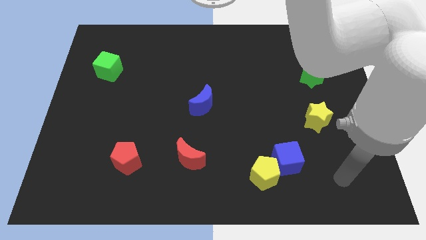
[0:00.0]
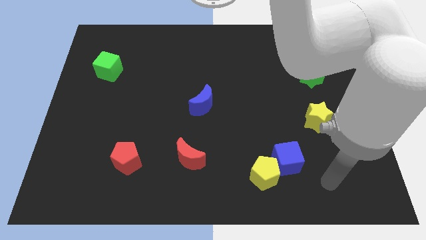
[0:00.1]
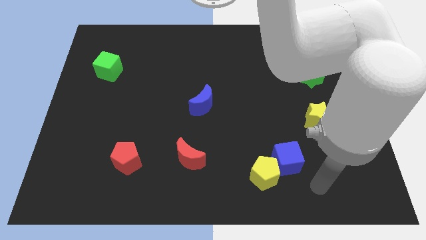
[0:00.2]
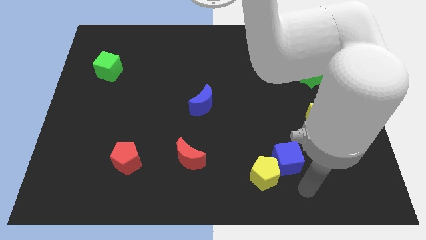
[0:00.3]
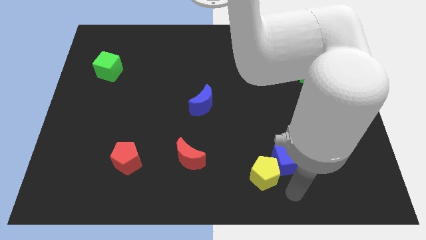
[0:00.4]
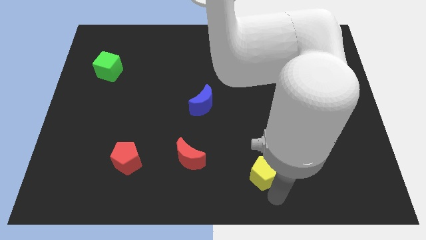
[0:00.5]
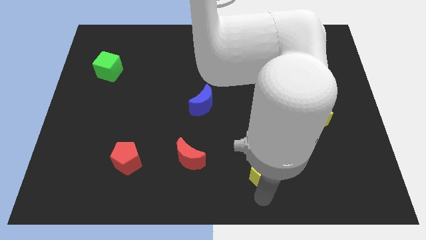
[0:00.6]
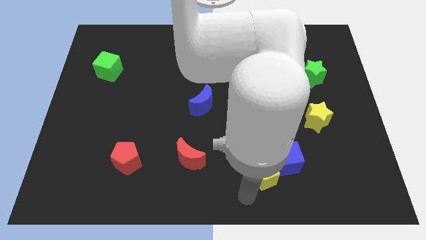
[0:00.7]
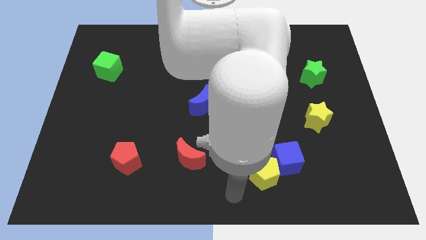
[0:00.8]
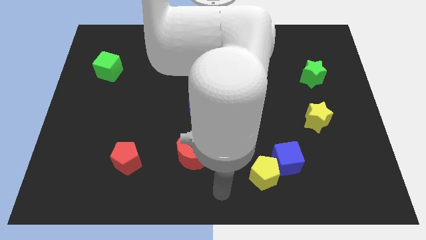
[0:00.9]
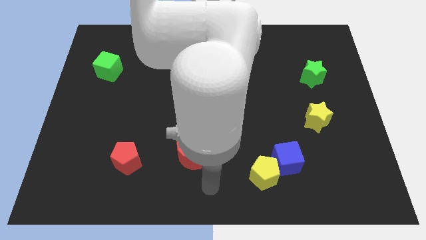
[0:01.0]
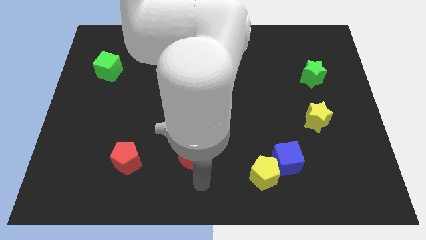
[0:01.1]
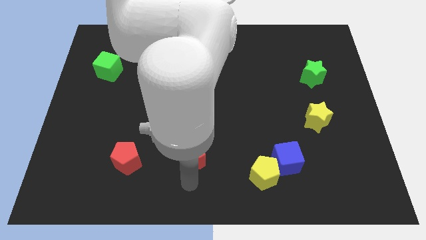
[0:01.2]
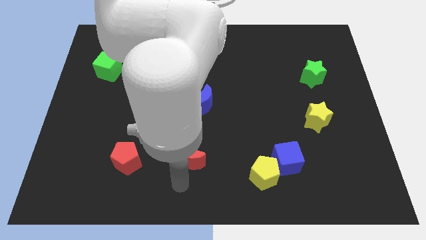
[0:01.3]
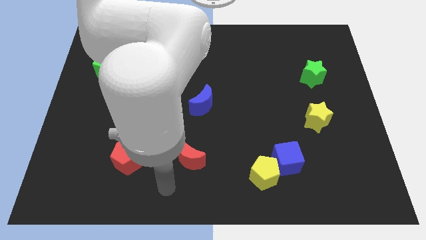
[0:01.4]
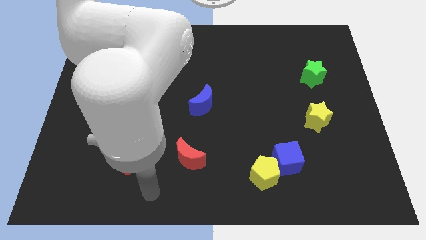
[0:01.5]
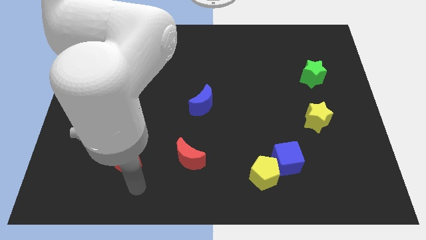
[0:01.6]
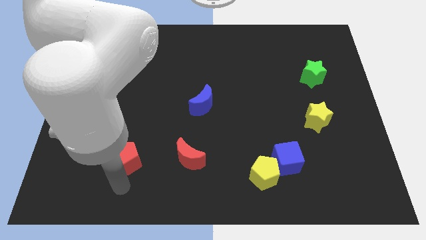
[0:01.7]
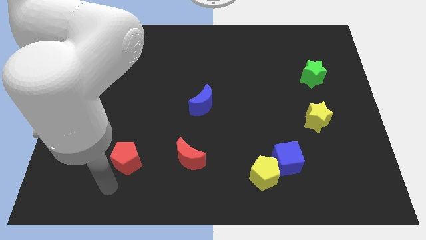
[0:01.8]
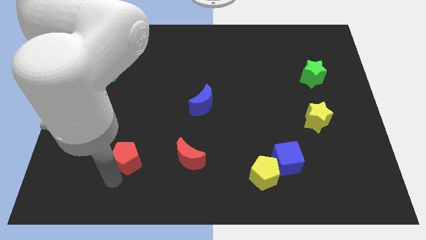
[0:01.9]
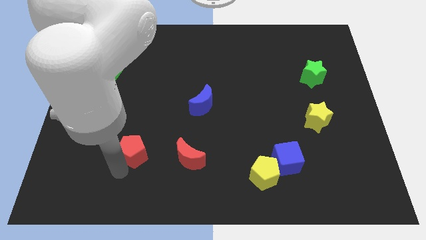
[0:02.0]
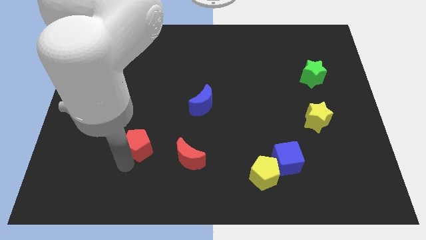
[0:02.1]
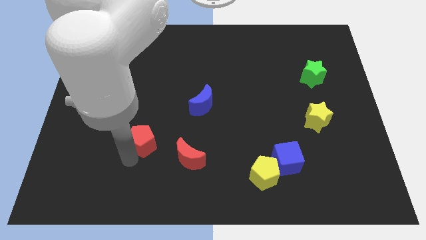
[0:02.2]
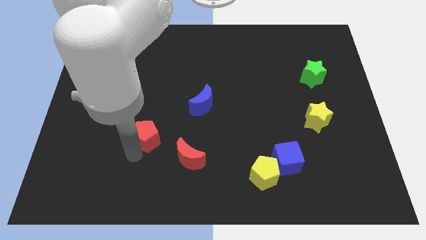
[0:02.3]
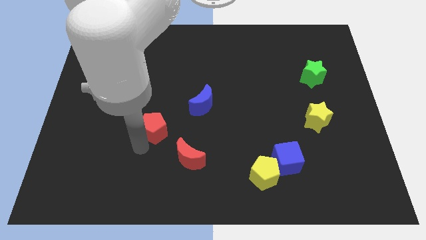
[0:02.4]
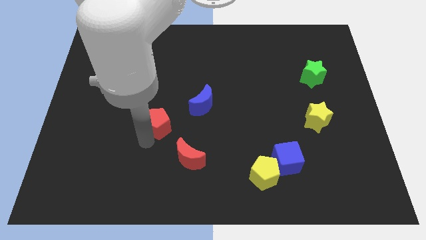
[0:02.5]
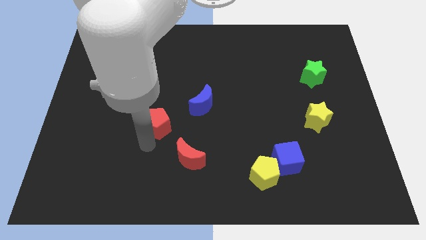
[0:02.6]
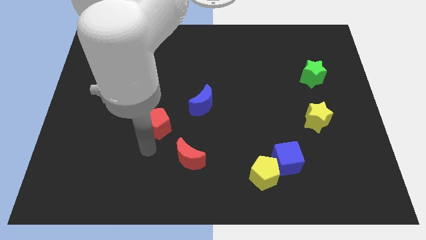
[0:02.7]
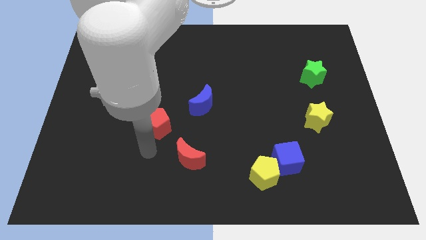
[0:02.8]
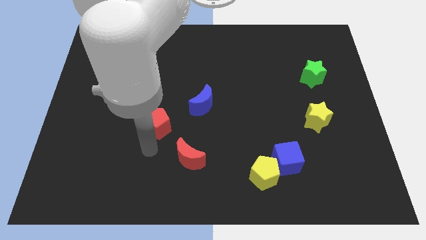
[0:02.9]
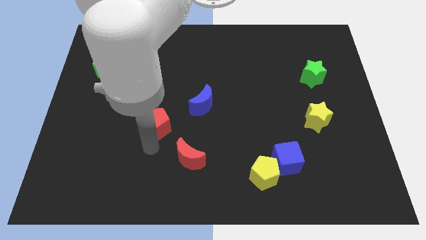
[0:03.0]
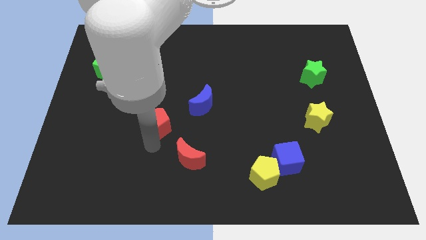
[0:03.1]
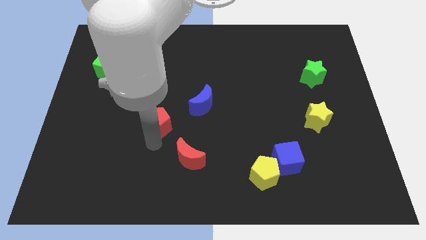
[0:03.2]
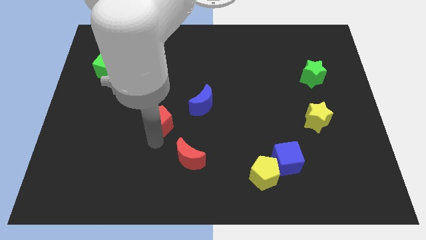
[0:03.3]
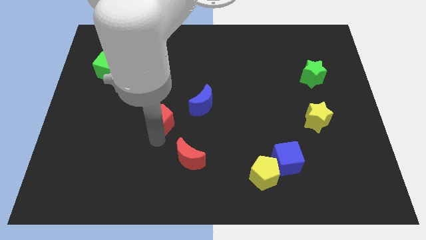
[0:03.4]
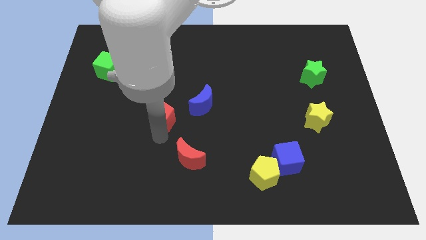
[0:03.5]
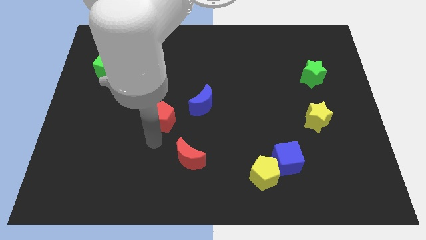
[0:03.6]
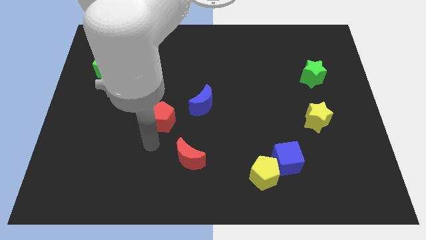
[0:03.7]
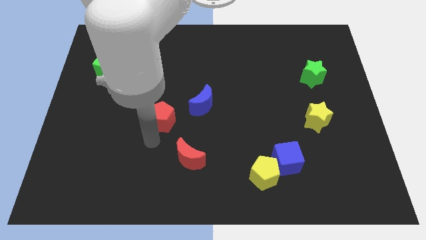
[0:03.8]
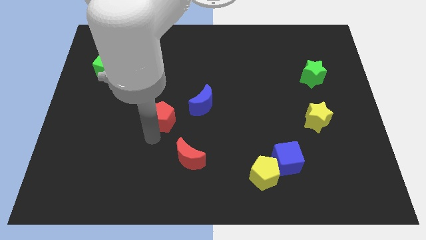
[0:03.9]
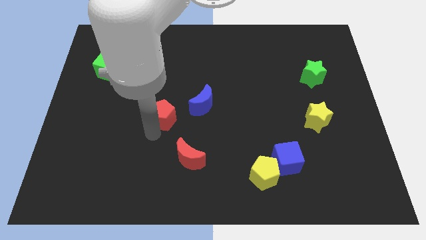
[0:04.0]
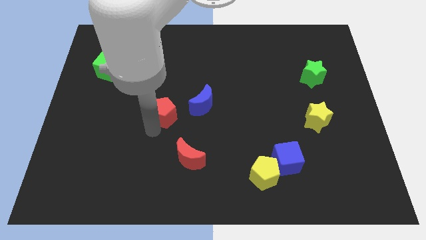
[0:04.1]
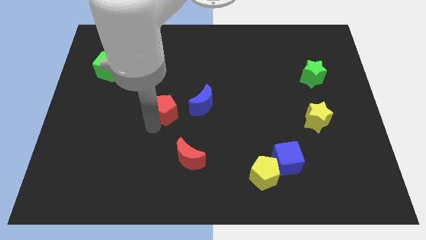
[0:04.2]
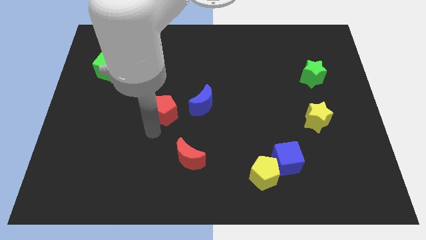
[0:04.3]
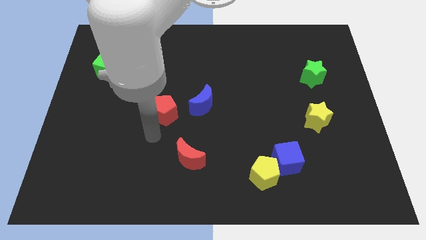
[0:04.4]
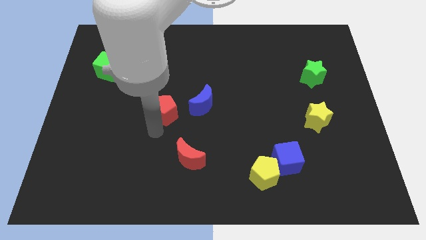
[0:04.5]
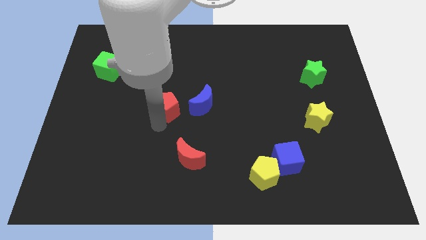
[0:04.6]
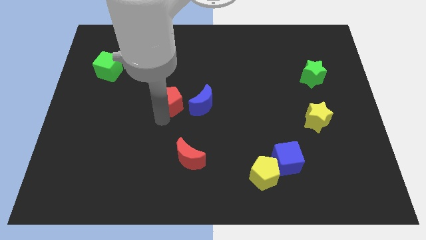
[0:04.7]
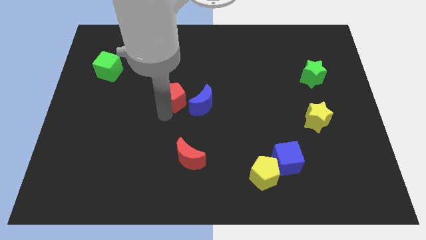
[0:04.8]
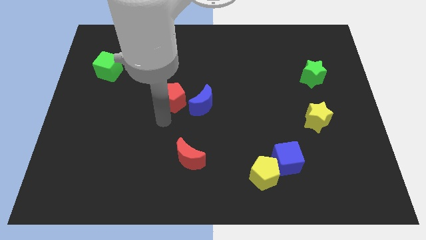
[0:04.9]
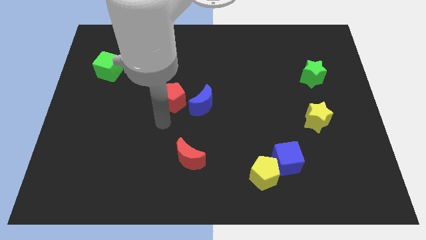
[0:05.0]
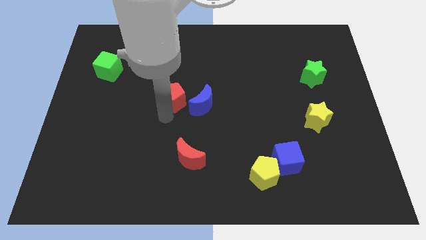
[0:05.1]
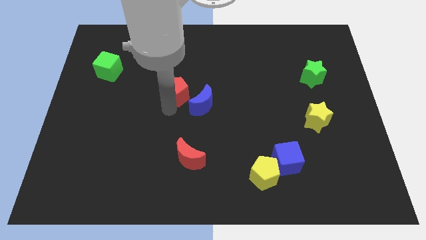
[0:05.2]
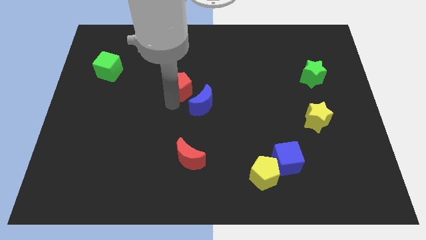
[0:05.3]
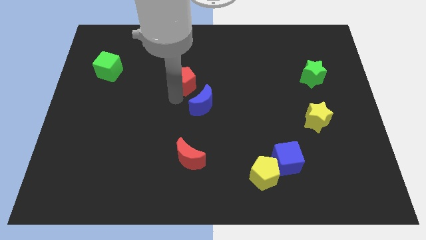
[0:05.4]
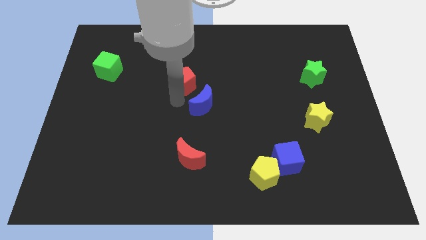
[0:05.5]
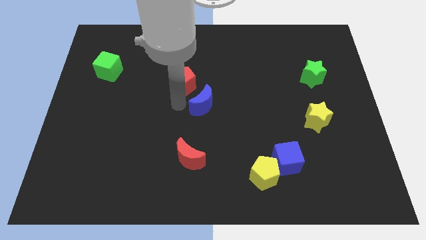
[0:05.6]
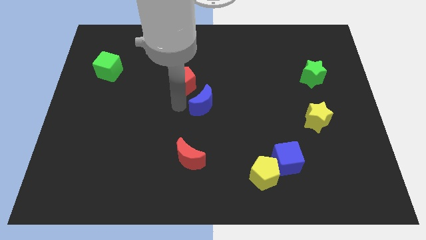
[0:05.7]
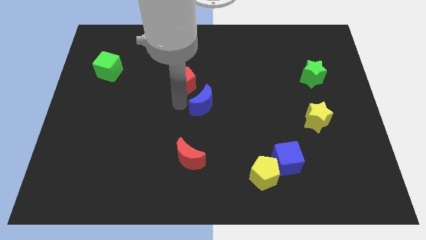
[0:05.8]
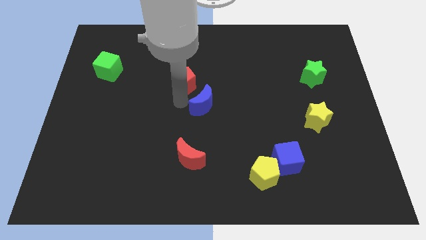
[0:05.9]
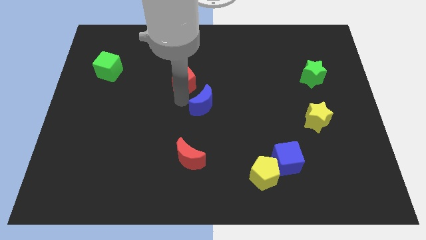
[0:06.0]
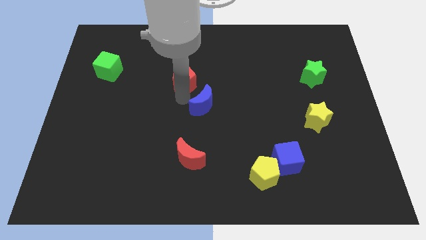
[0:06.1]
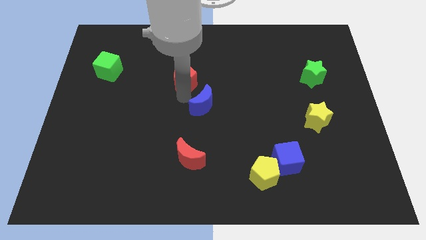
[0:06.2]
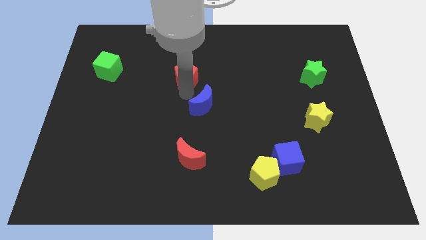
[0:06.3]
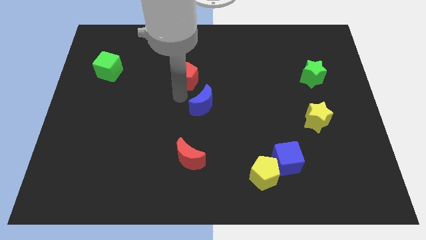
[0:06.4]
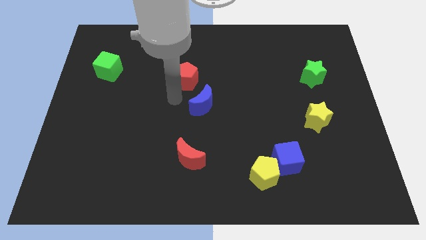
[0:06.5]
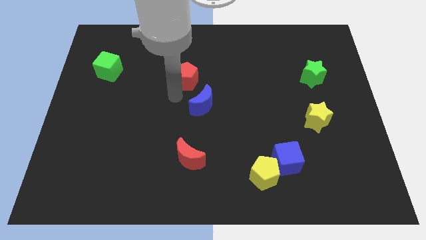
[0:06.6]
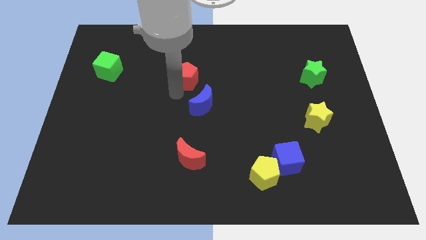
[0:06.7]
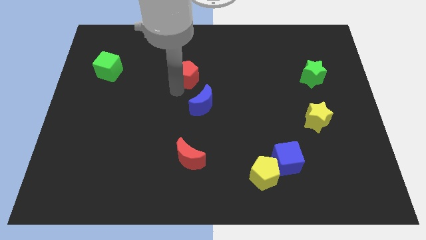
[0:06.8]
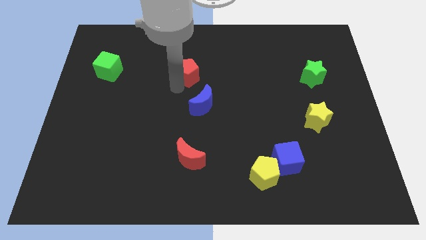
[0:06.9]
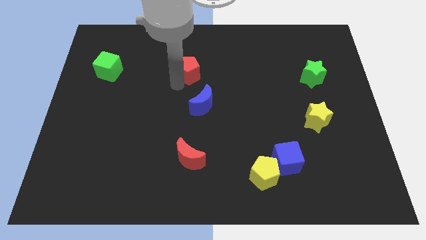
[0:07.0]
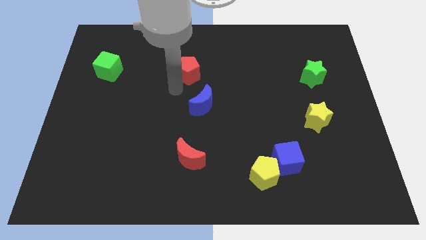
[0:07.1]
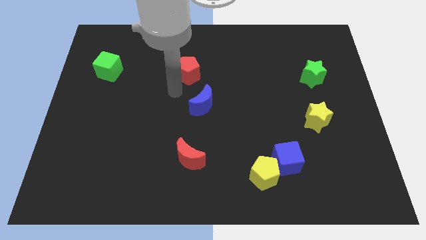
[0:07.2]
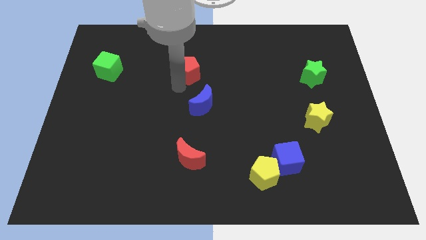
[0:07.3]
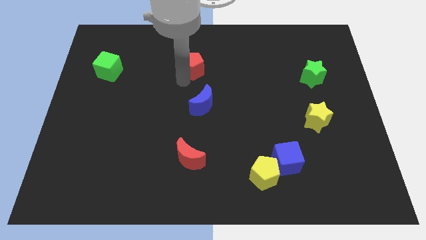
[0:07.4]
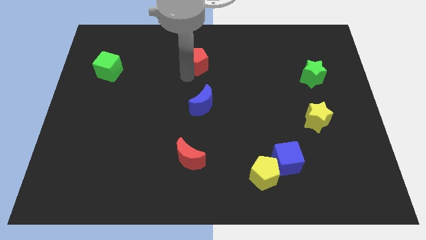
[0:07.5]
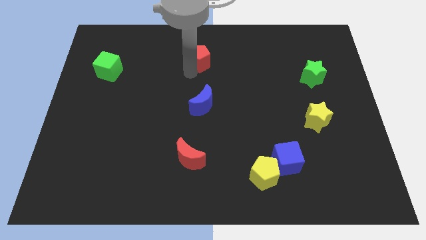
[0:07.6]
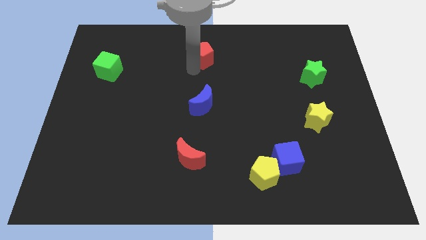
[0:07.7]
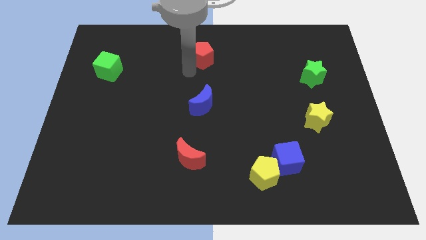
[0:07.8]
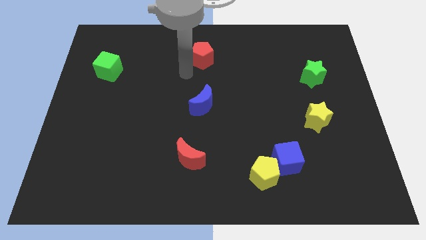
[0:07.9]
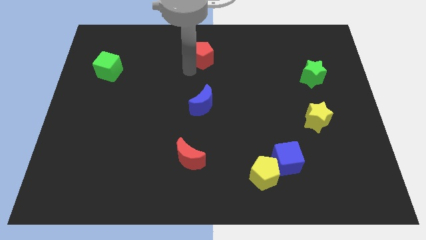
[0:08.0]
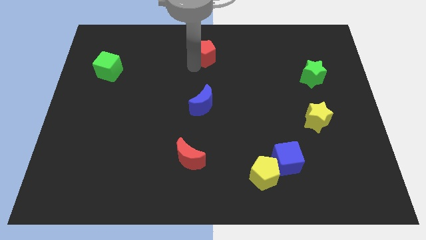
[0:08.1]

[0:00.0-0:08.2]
move the red pentagon to the top side
